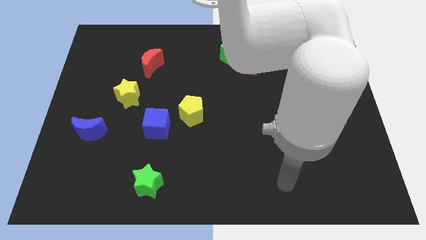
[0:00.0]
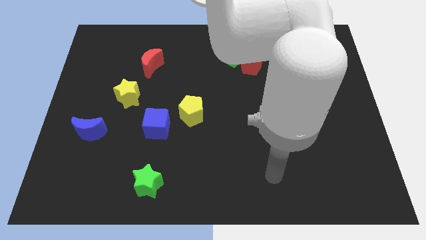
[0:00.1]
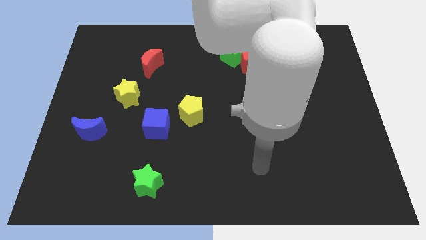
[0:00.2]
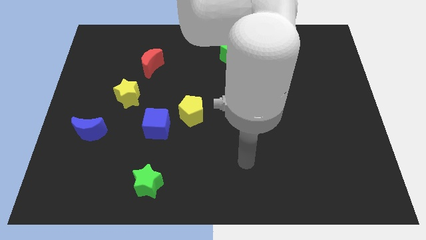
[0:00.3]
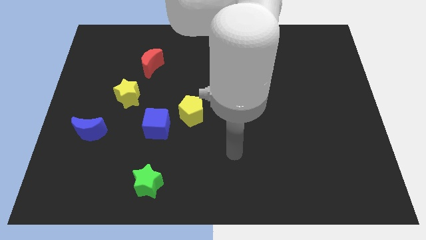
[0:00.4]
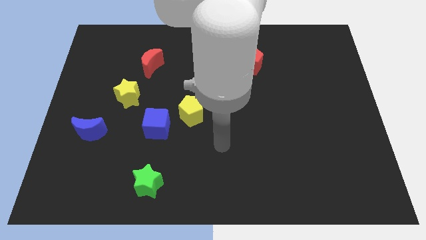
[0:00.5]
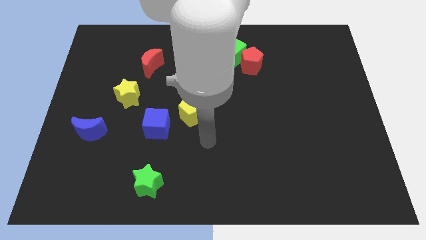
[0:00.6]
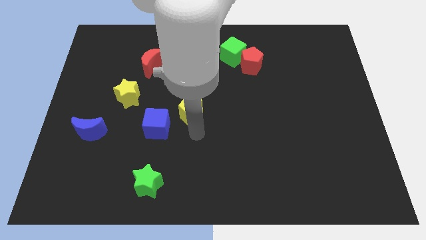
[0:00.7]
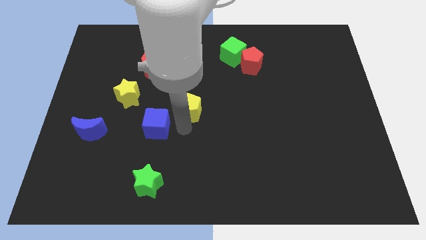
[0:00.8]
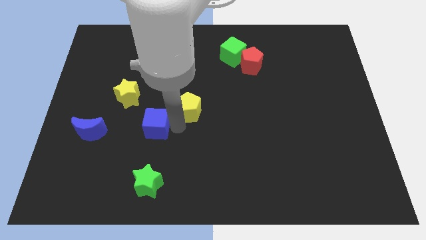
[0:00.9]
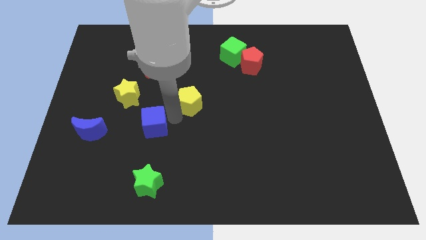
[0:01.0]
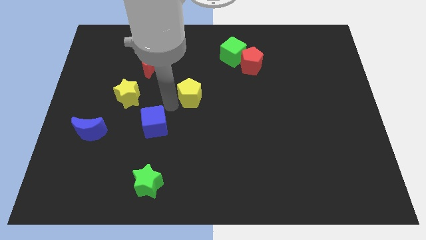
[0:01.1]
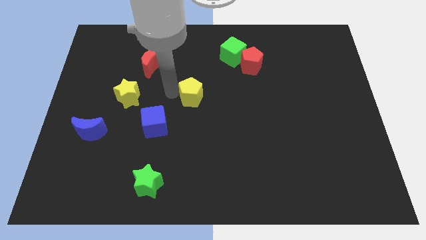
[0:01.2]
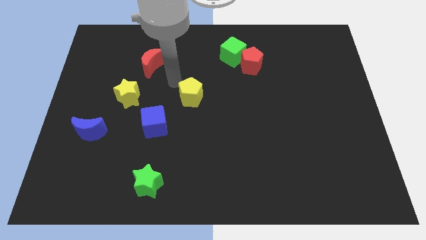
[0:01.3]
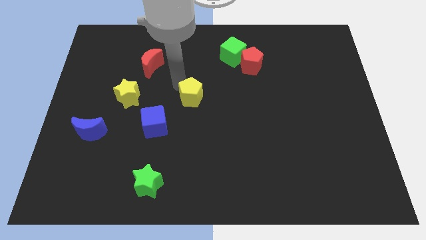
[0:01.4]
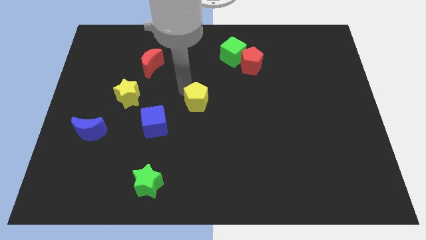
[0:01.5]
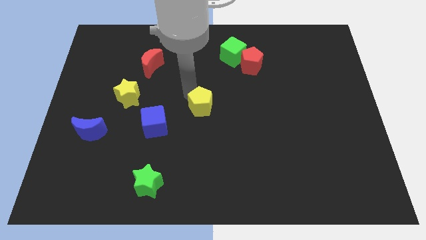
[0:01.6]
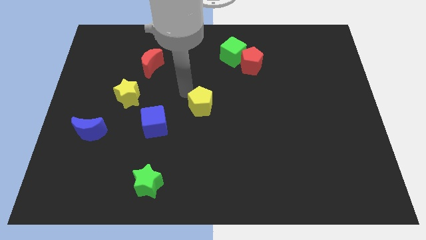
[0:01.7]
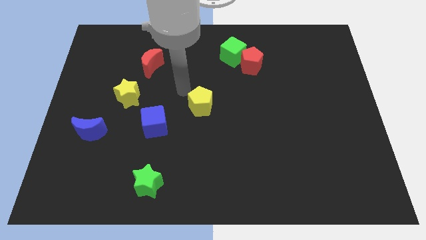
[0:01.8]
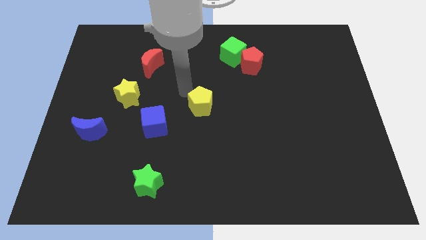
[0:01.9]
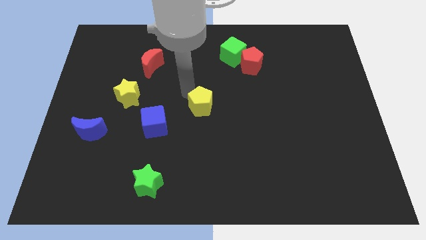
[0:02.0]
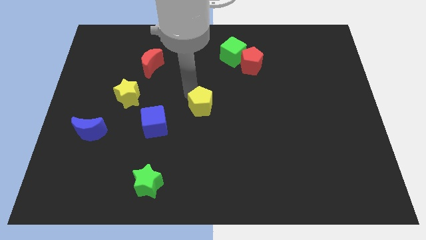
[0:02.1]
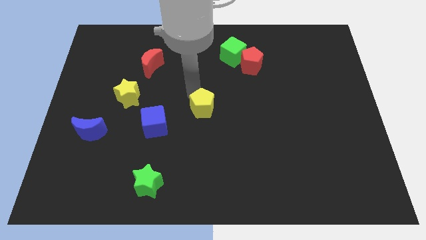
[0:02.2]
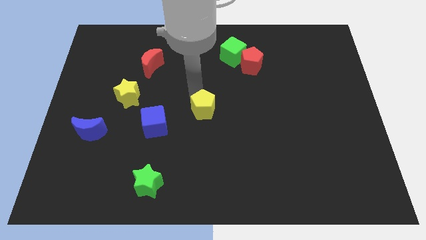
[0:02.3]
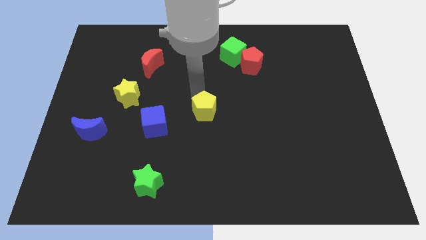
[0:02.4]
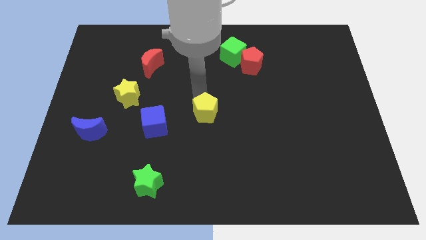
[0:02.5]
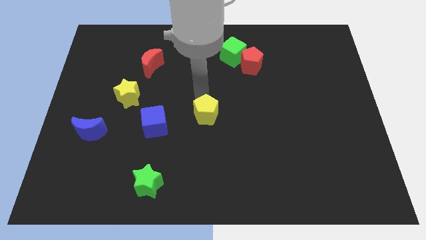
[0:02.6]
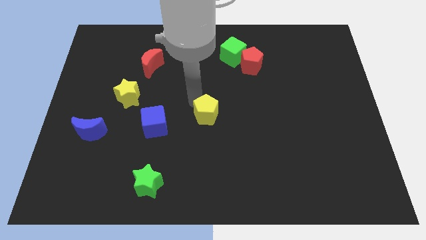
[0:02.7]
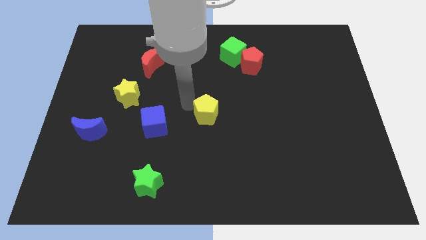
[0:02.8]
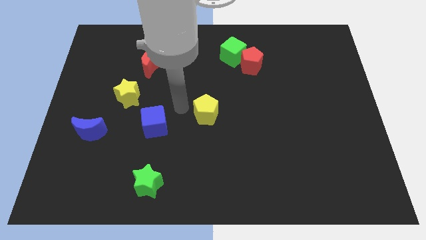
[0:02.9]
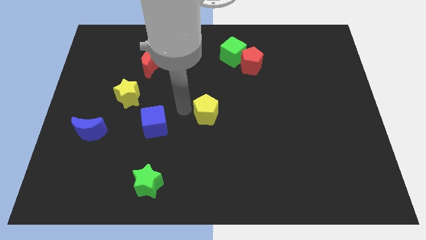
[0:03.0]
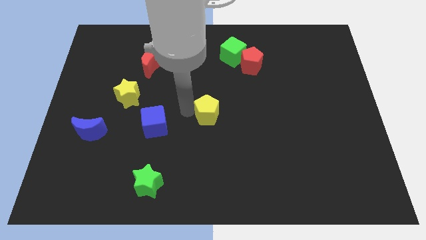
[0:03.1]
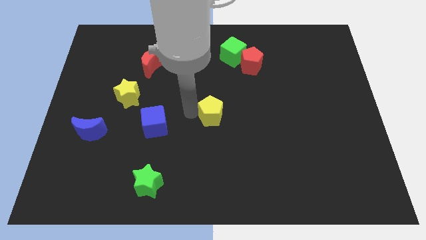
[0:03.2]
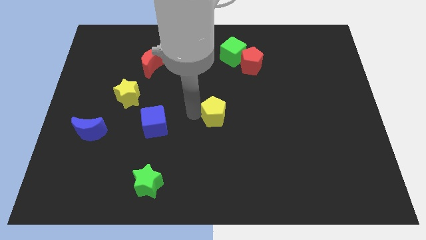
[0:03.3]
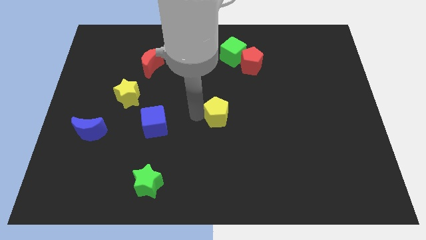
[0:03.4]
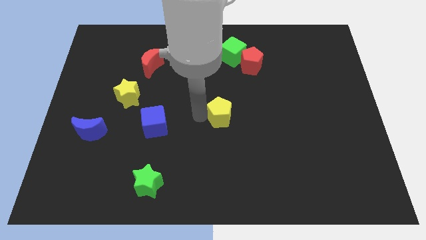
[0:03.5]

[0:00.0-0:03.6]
slide the yellow pentagon right somewhat

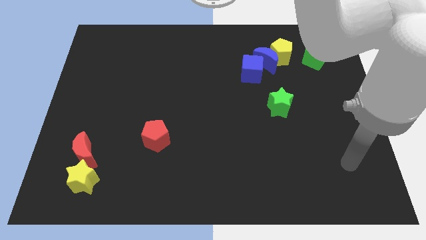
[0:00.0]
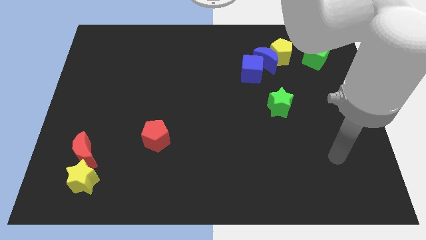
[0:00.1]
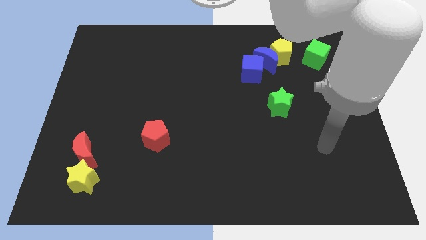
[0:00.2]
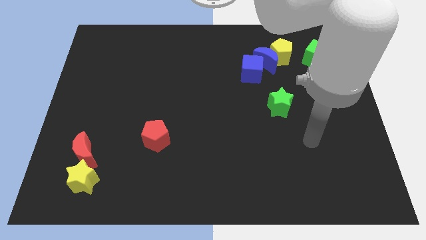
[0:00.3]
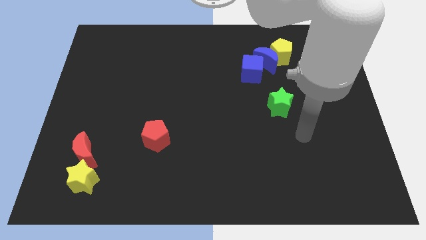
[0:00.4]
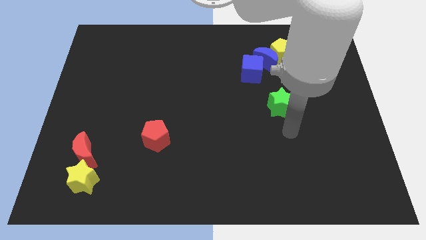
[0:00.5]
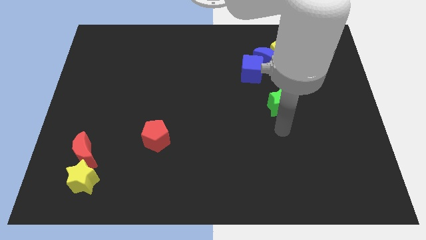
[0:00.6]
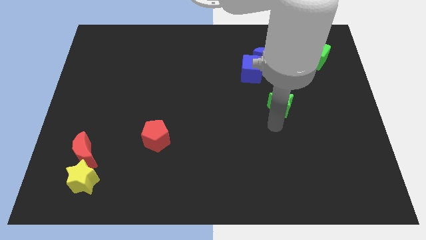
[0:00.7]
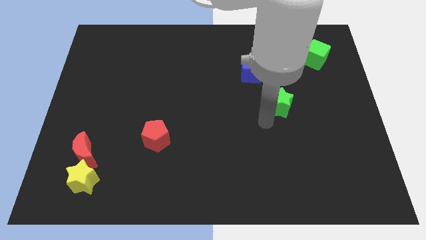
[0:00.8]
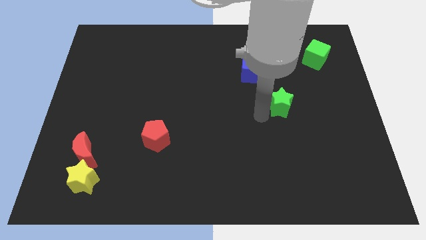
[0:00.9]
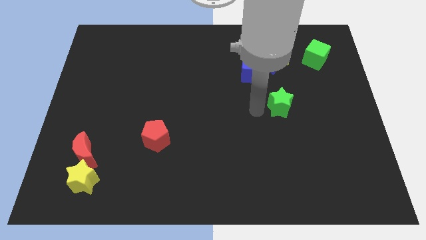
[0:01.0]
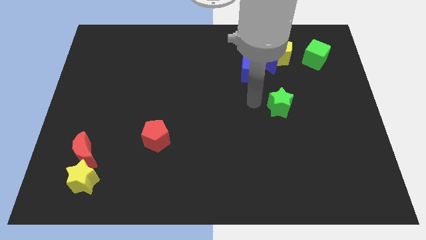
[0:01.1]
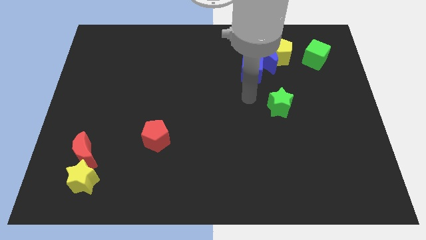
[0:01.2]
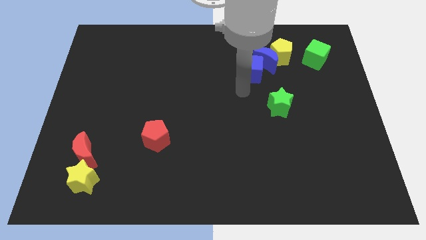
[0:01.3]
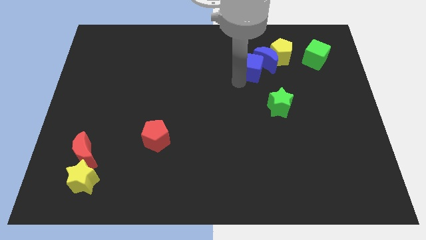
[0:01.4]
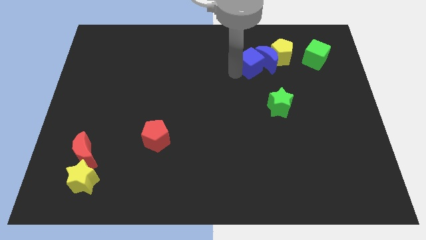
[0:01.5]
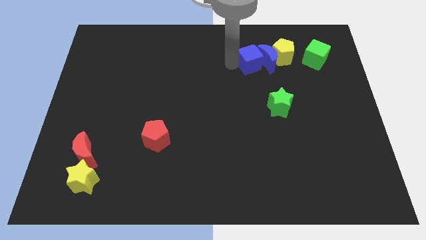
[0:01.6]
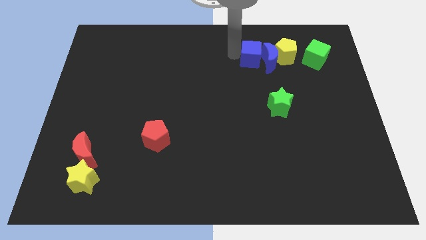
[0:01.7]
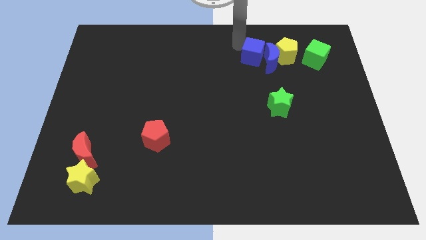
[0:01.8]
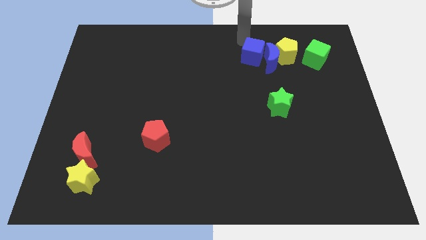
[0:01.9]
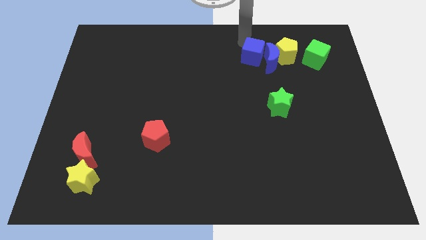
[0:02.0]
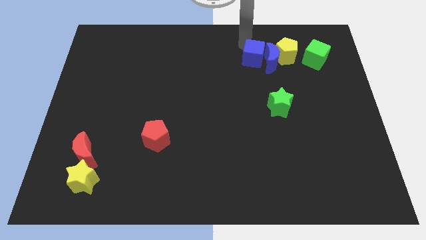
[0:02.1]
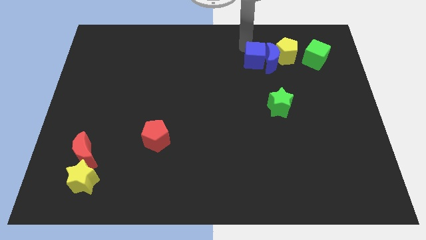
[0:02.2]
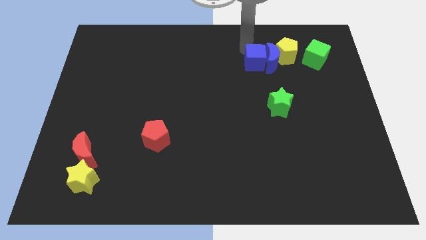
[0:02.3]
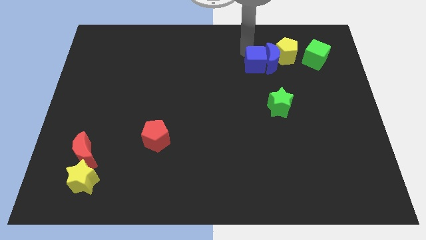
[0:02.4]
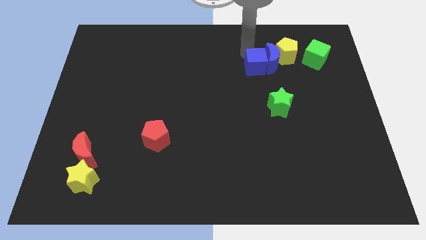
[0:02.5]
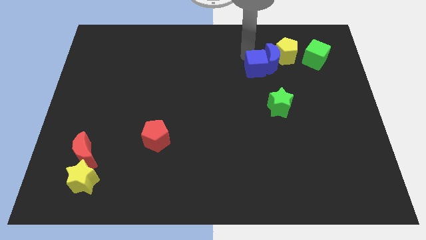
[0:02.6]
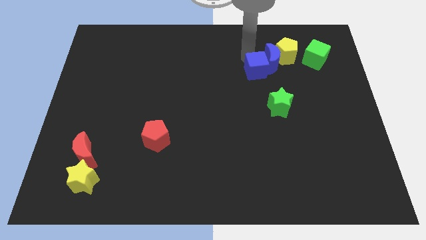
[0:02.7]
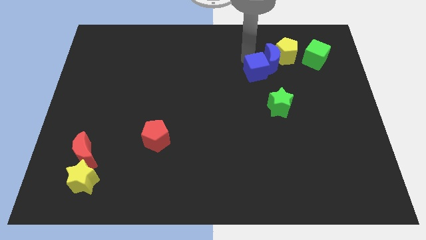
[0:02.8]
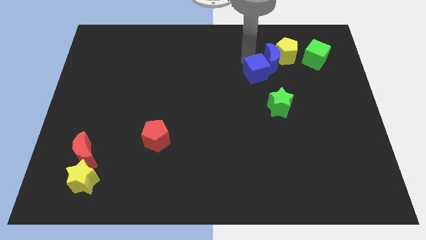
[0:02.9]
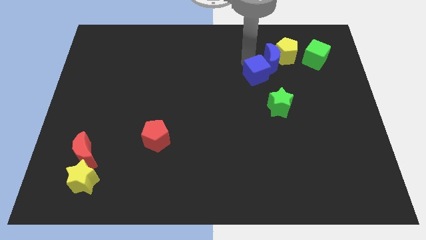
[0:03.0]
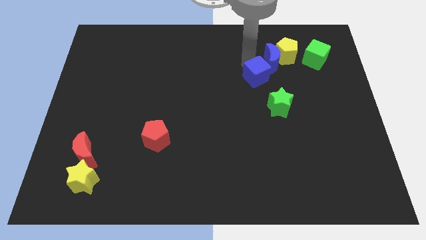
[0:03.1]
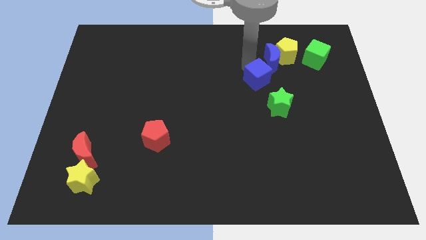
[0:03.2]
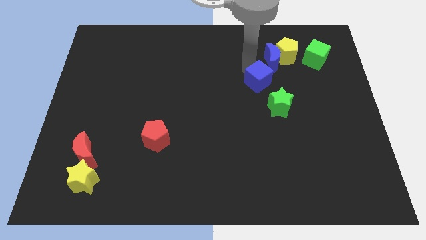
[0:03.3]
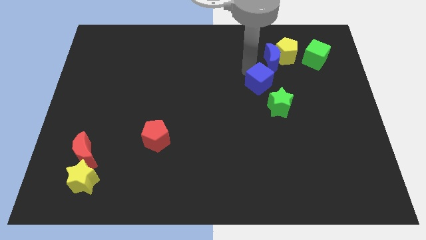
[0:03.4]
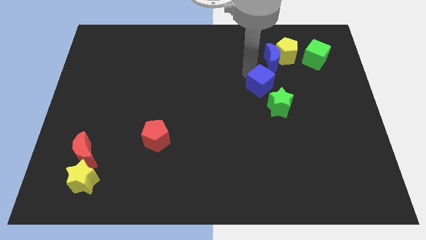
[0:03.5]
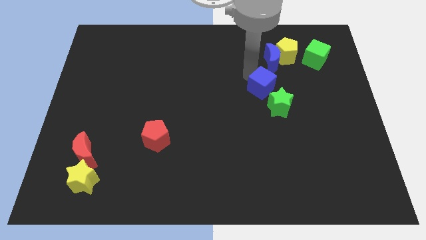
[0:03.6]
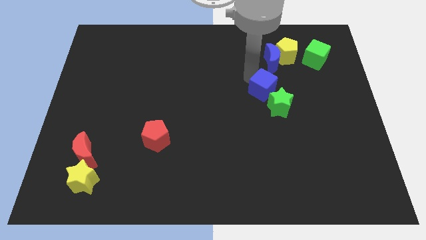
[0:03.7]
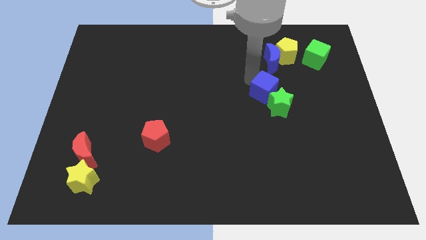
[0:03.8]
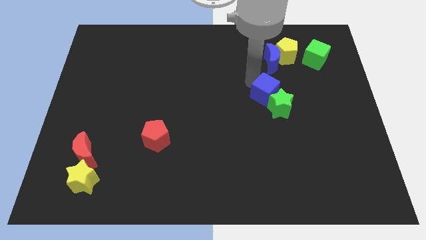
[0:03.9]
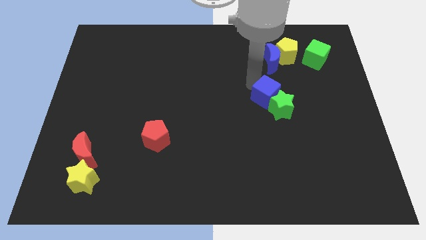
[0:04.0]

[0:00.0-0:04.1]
push the blue cube a bit downwards and right diagonally

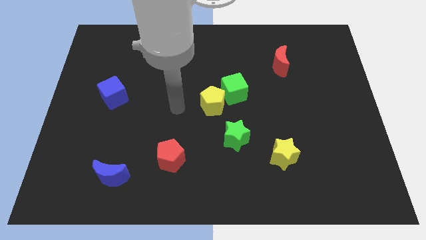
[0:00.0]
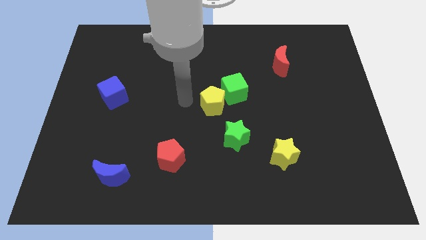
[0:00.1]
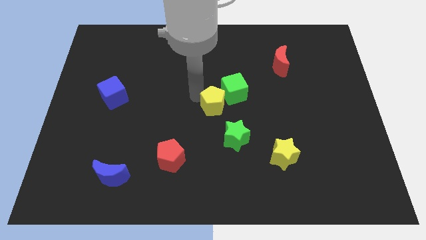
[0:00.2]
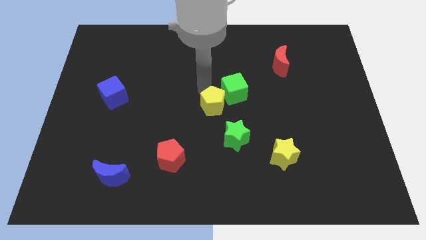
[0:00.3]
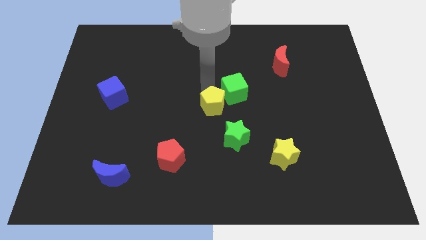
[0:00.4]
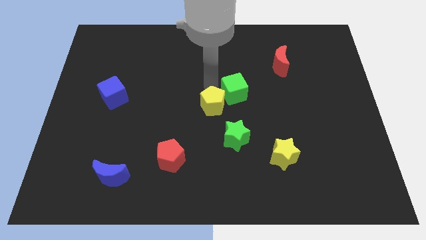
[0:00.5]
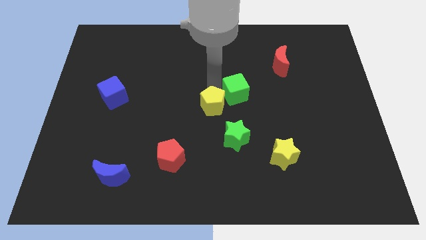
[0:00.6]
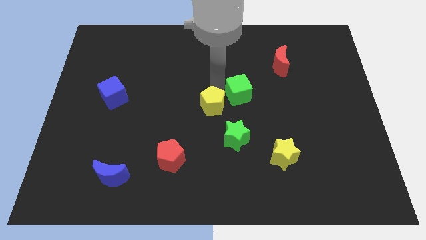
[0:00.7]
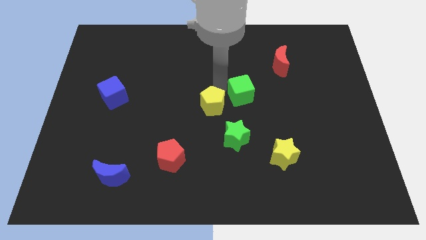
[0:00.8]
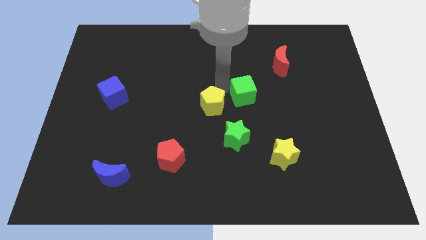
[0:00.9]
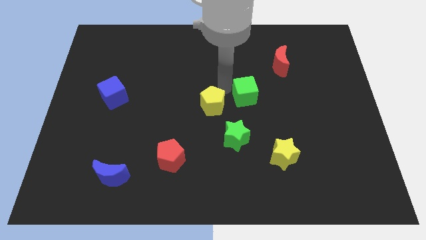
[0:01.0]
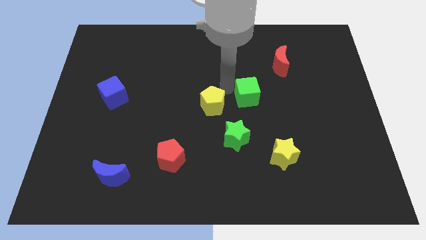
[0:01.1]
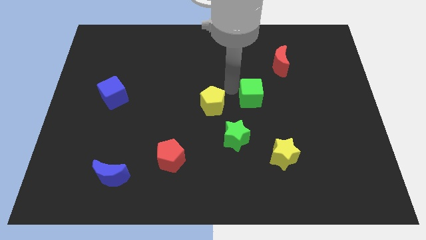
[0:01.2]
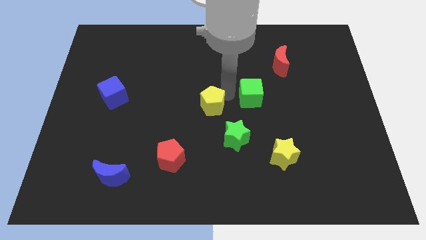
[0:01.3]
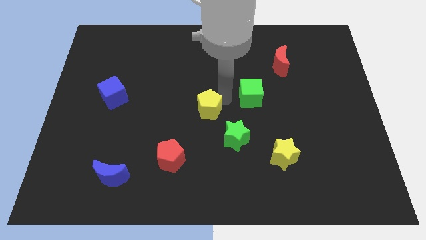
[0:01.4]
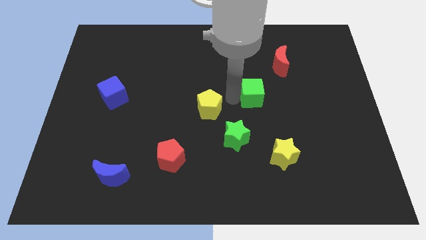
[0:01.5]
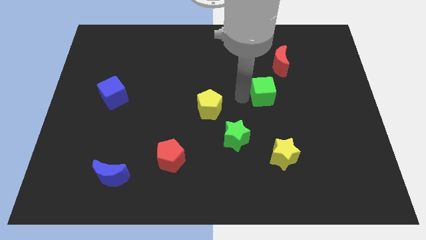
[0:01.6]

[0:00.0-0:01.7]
slide the green cube a little bit to the right
